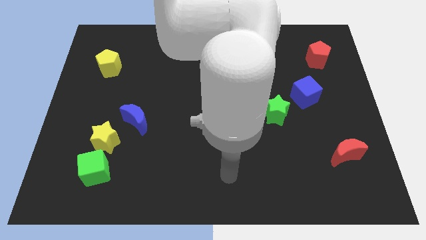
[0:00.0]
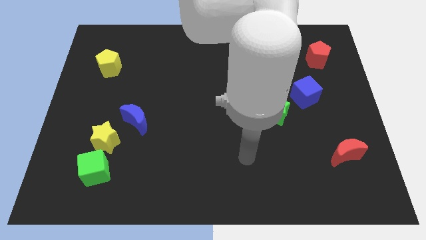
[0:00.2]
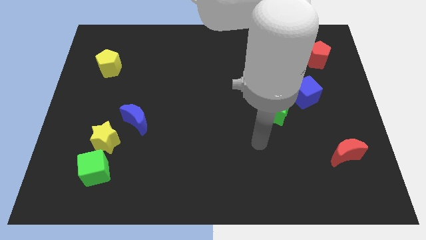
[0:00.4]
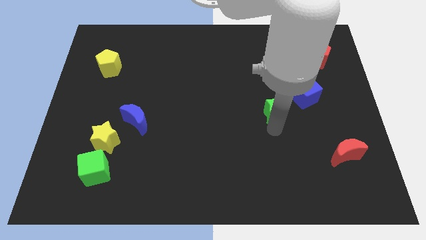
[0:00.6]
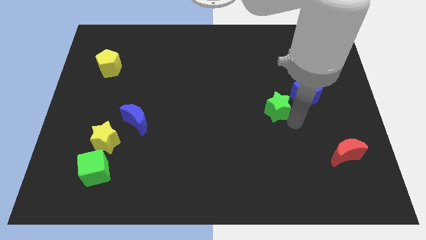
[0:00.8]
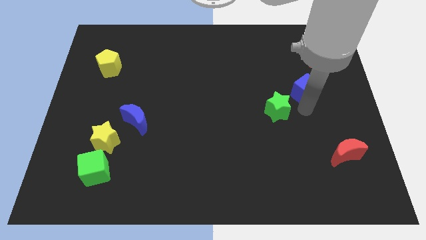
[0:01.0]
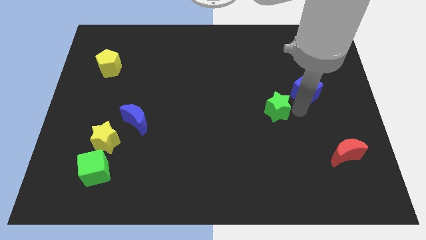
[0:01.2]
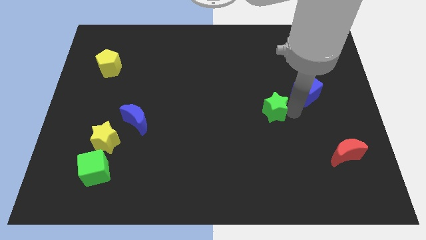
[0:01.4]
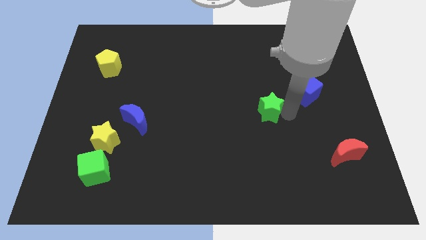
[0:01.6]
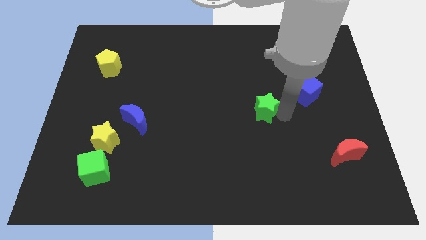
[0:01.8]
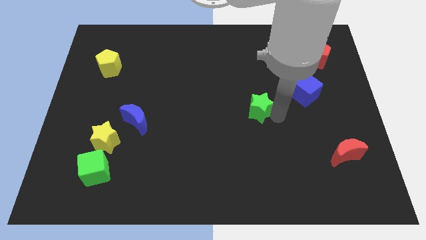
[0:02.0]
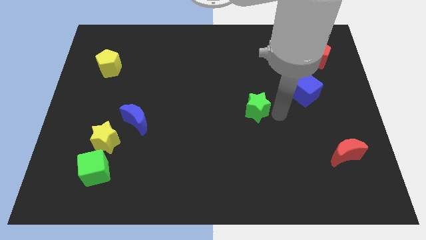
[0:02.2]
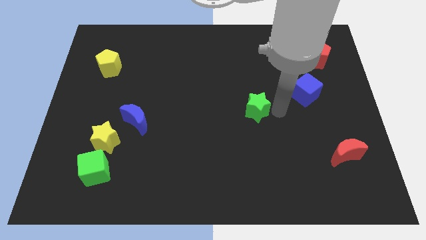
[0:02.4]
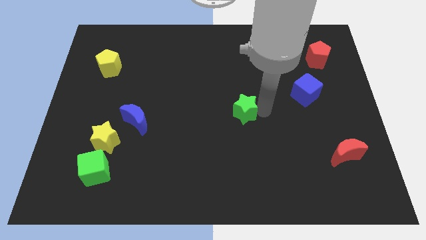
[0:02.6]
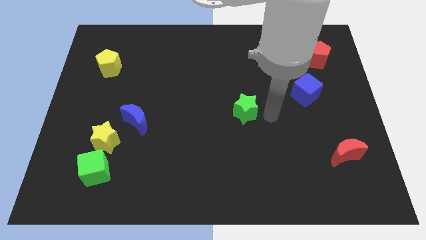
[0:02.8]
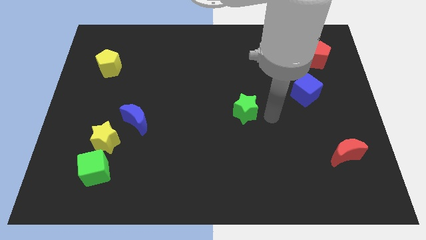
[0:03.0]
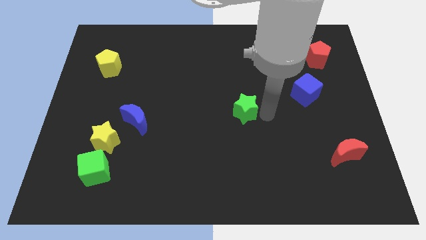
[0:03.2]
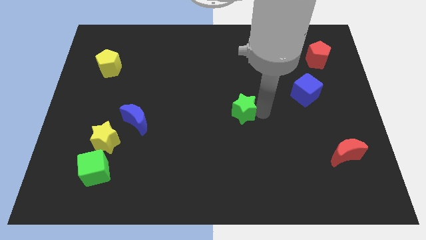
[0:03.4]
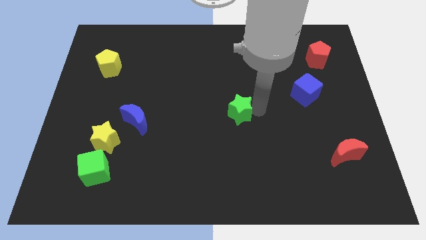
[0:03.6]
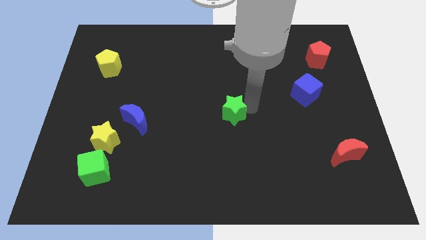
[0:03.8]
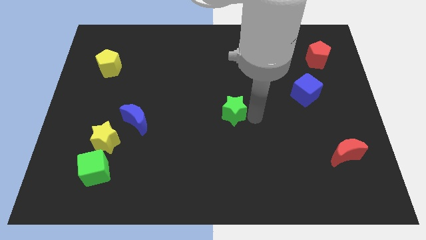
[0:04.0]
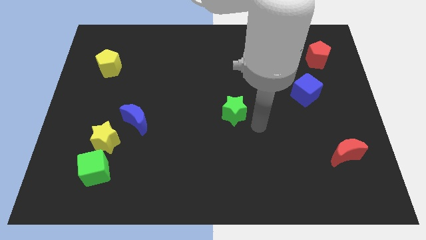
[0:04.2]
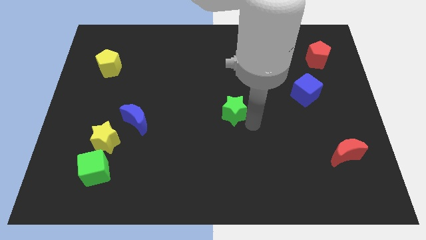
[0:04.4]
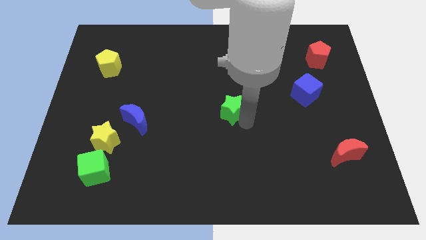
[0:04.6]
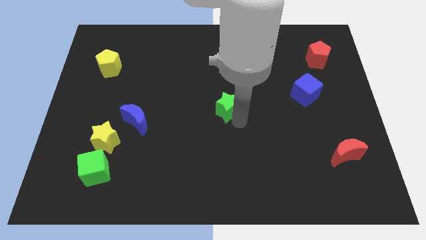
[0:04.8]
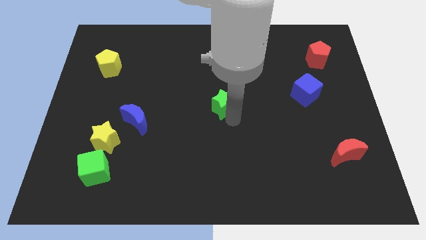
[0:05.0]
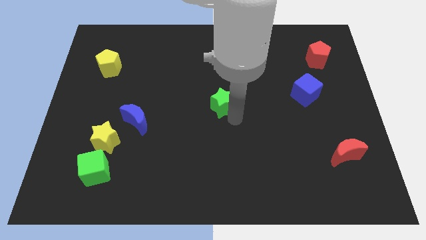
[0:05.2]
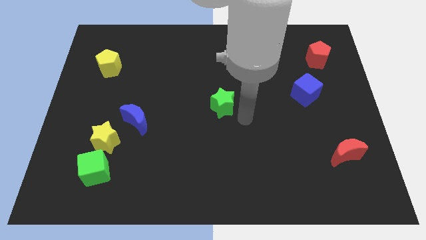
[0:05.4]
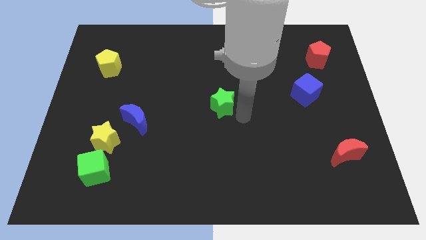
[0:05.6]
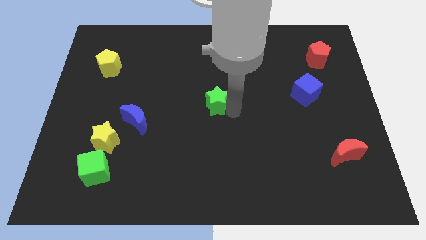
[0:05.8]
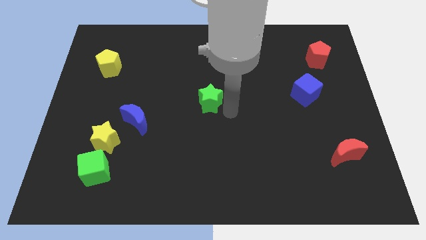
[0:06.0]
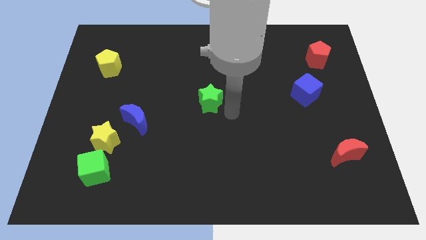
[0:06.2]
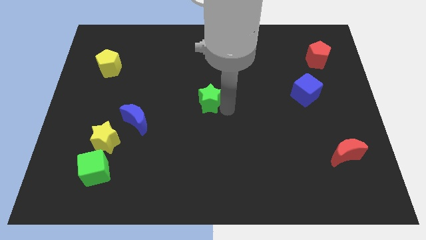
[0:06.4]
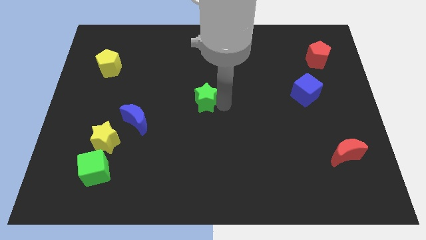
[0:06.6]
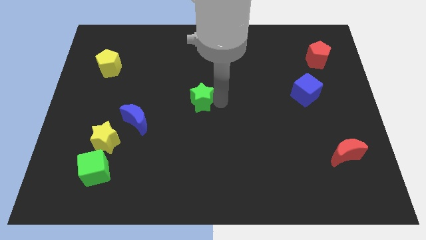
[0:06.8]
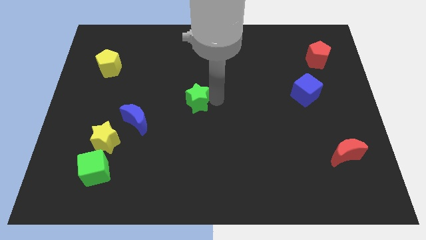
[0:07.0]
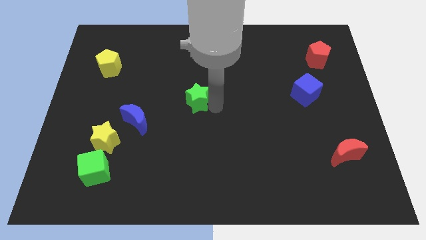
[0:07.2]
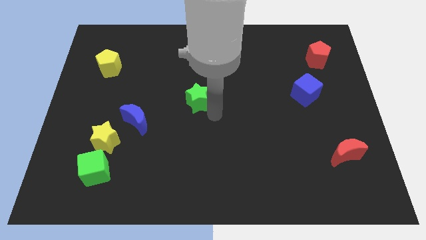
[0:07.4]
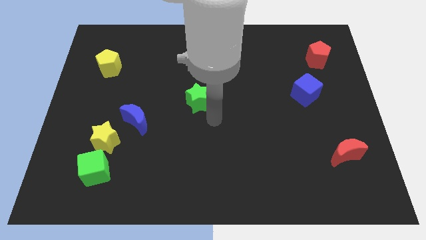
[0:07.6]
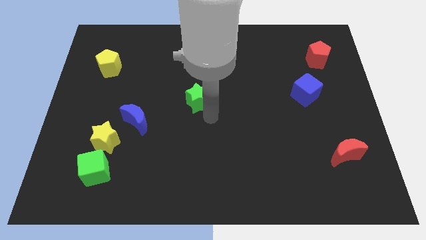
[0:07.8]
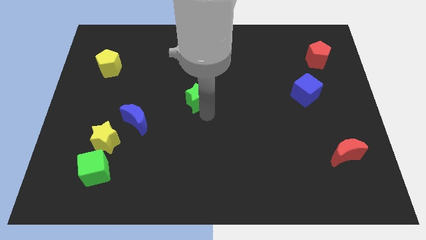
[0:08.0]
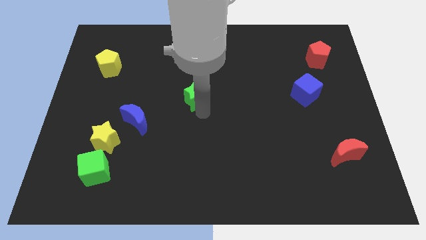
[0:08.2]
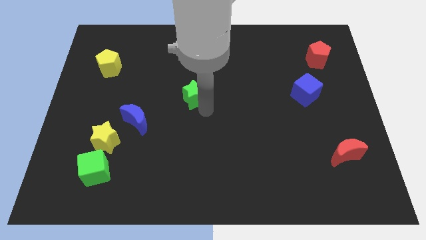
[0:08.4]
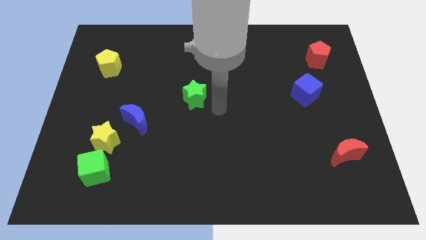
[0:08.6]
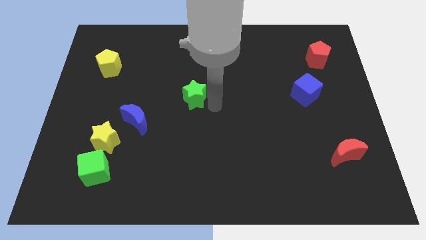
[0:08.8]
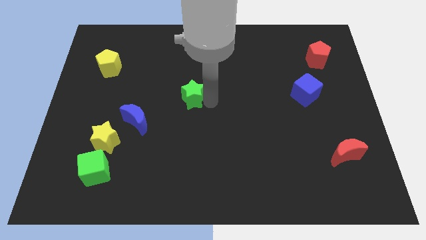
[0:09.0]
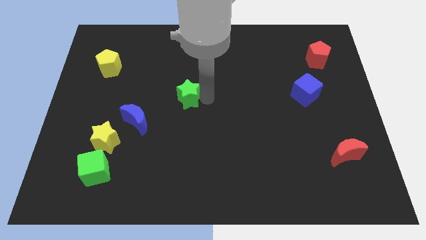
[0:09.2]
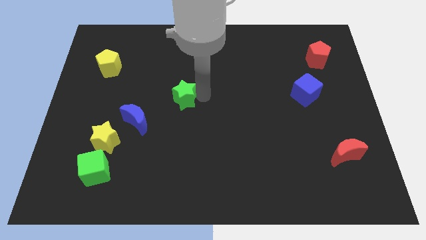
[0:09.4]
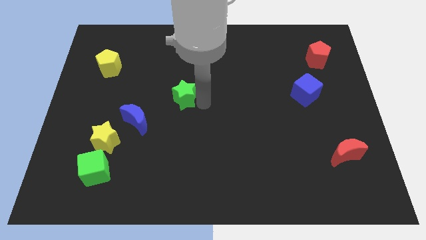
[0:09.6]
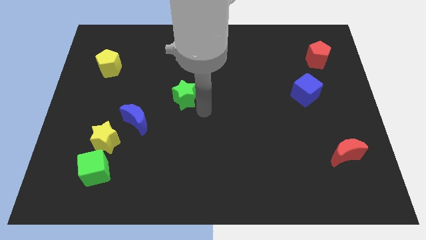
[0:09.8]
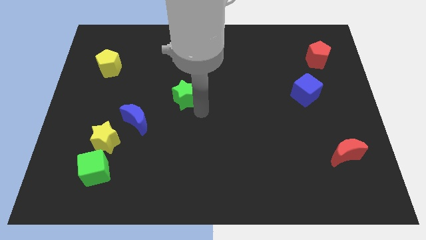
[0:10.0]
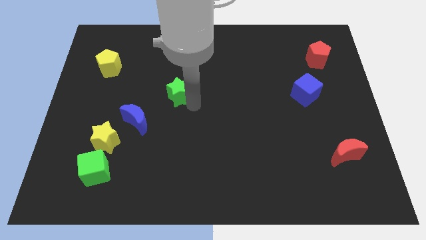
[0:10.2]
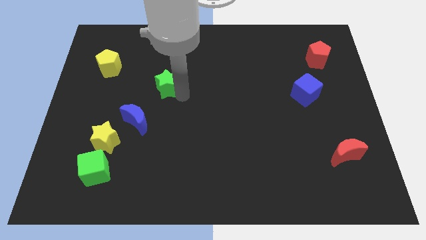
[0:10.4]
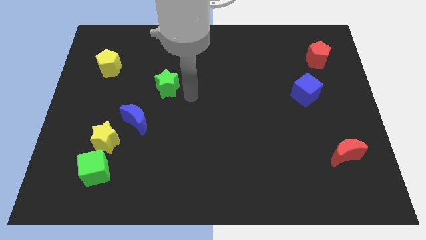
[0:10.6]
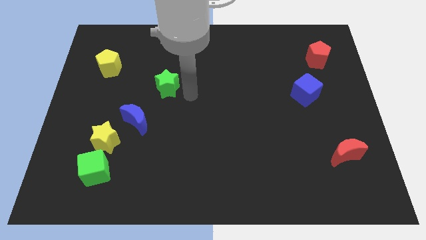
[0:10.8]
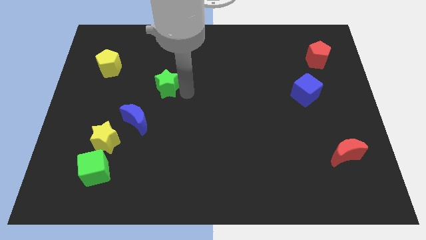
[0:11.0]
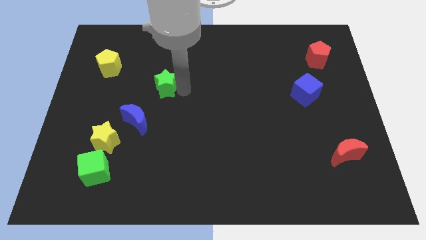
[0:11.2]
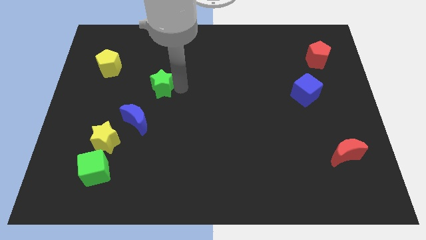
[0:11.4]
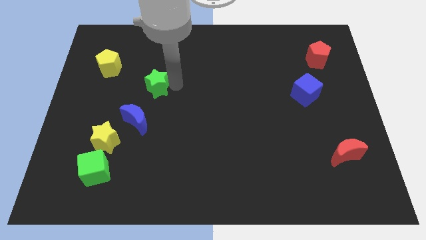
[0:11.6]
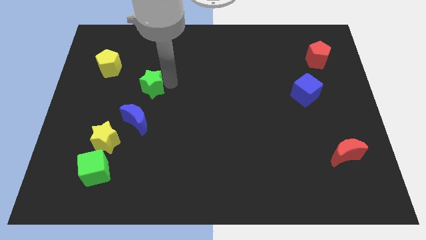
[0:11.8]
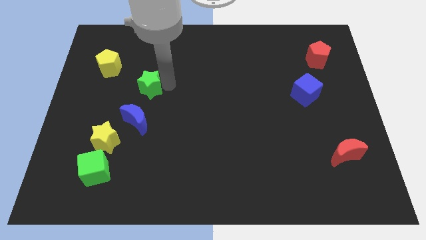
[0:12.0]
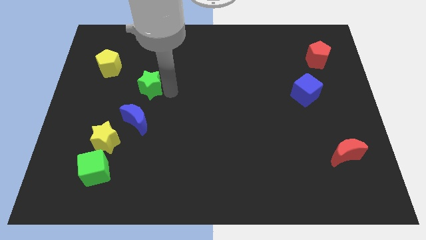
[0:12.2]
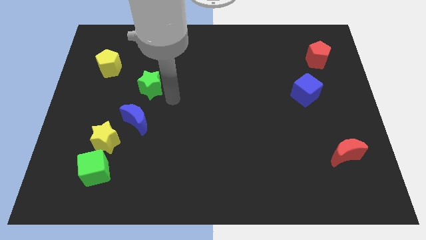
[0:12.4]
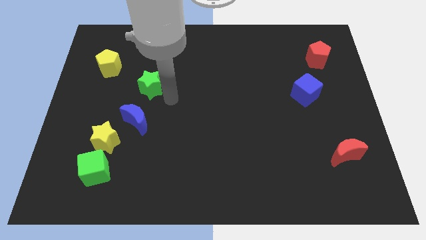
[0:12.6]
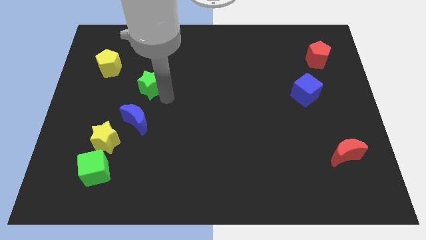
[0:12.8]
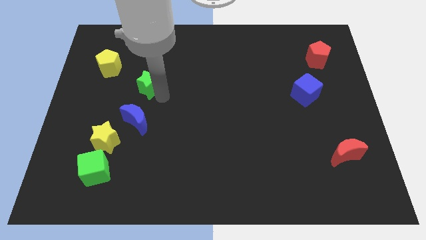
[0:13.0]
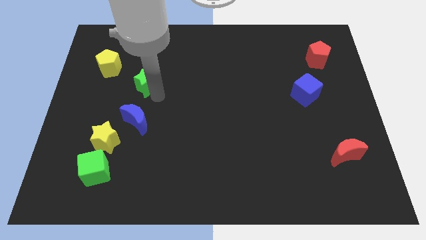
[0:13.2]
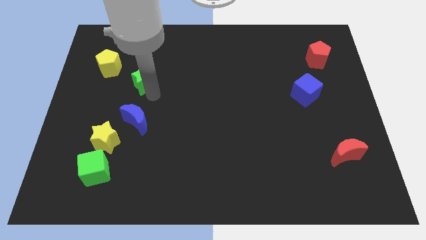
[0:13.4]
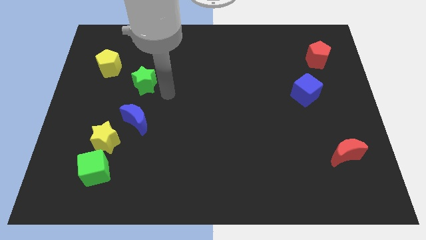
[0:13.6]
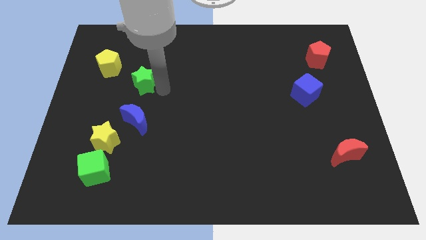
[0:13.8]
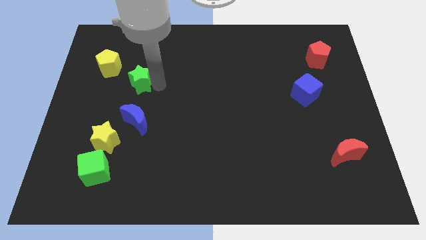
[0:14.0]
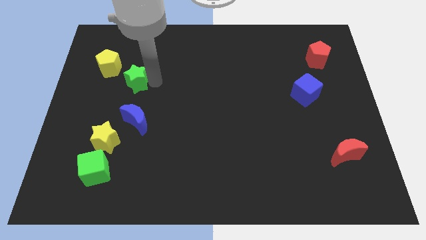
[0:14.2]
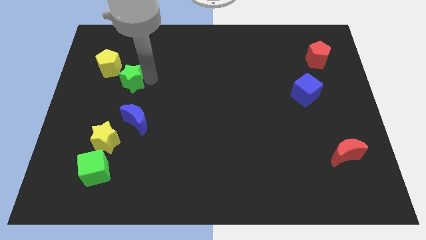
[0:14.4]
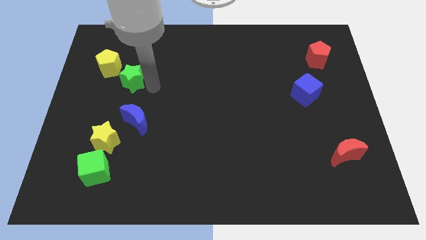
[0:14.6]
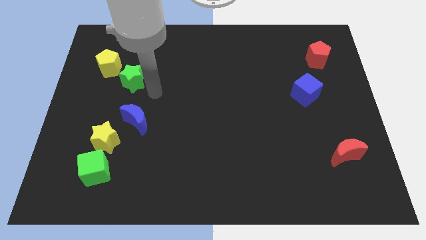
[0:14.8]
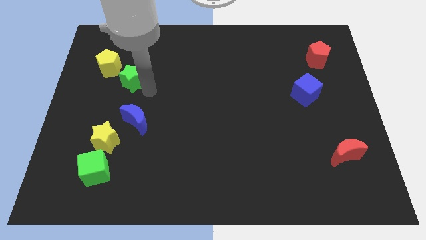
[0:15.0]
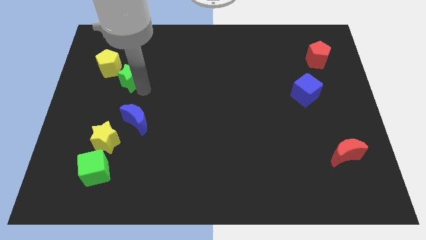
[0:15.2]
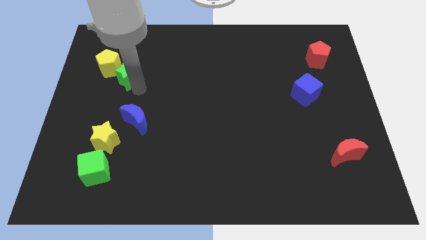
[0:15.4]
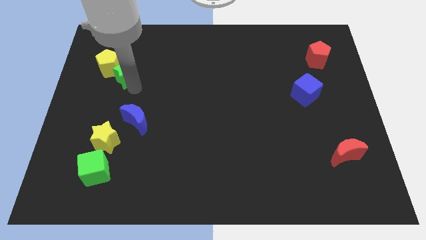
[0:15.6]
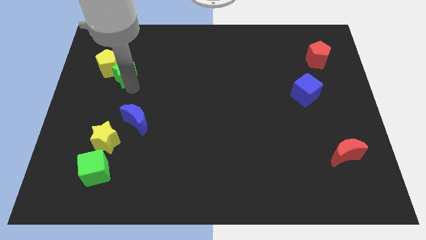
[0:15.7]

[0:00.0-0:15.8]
put the green star next to the yellow pentagon

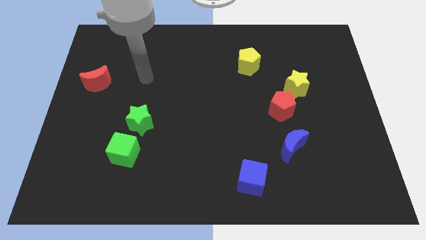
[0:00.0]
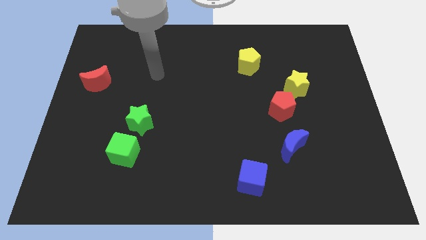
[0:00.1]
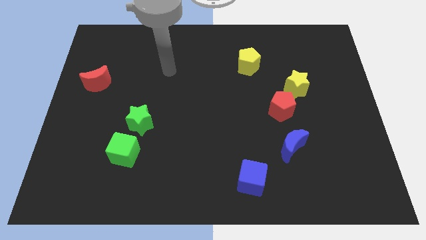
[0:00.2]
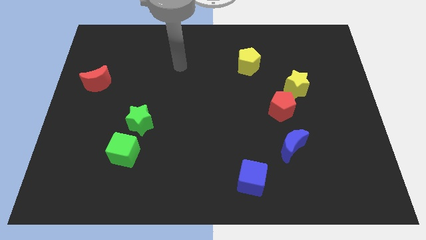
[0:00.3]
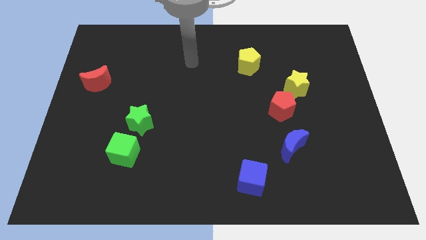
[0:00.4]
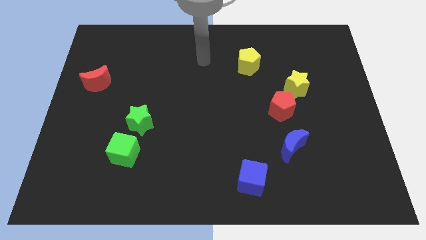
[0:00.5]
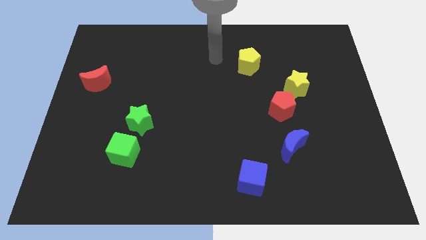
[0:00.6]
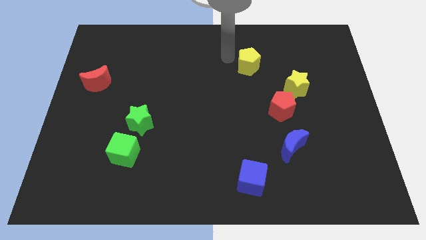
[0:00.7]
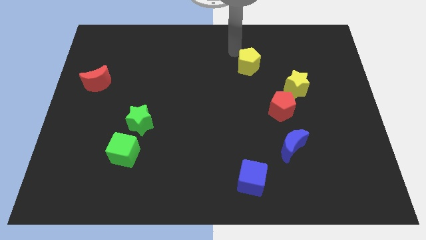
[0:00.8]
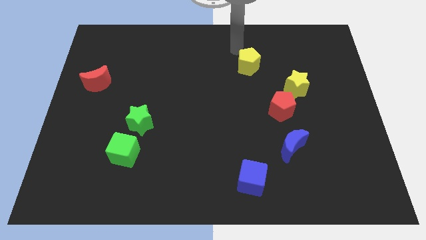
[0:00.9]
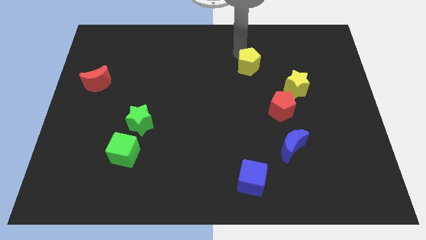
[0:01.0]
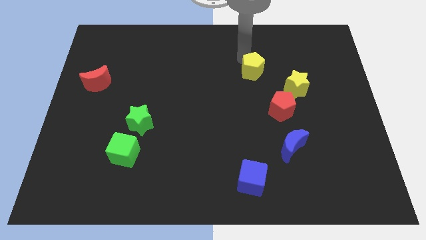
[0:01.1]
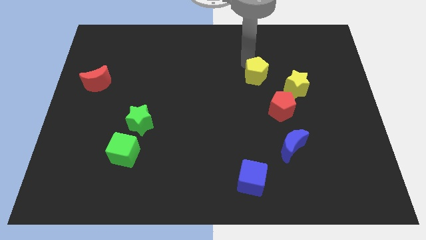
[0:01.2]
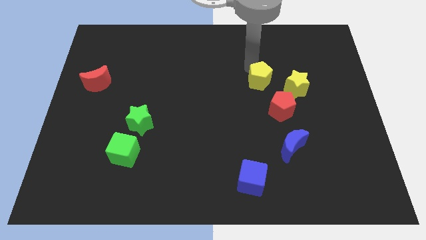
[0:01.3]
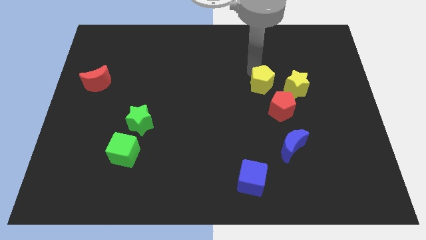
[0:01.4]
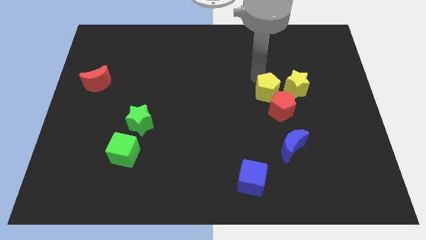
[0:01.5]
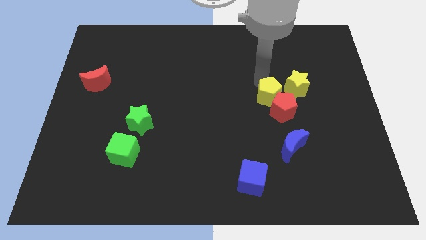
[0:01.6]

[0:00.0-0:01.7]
push the yellow pentagon close to the red pentagon
